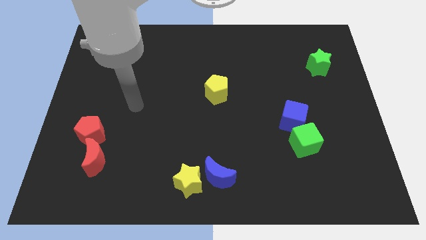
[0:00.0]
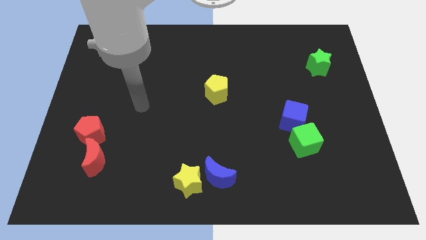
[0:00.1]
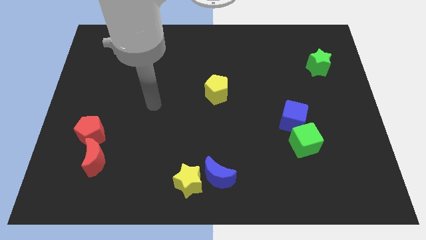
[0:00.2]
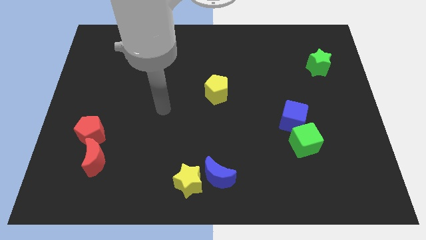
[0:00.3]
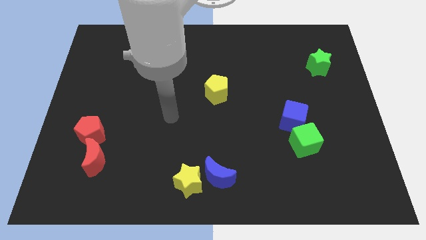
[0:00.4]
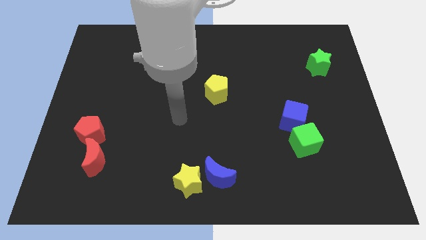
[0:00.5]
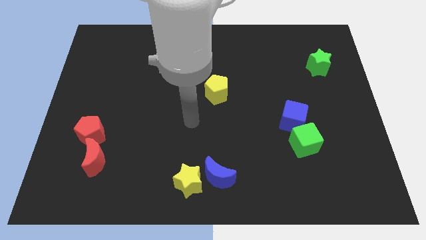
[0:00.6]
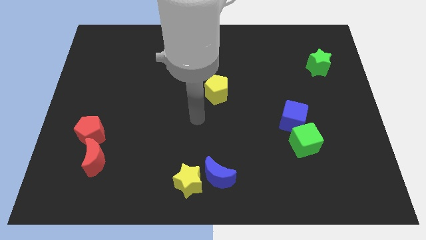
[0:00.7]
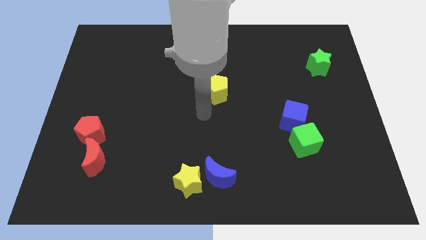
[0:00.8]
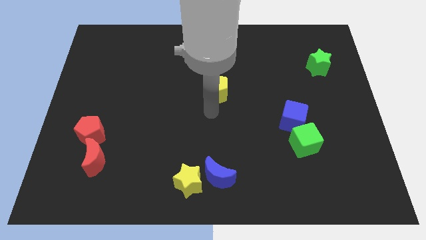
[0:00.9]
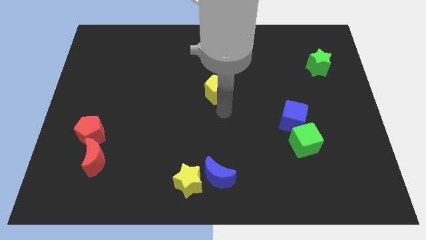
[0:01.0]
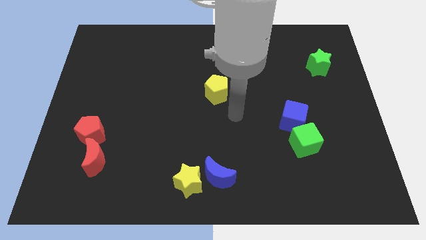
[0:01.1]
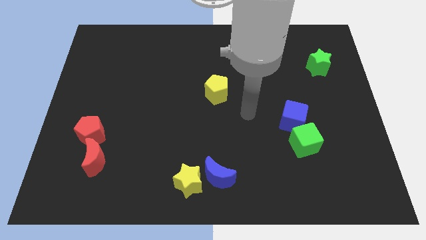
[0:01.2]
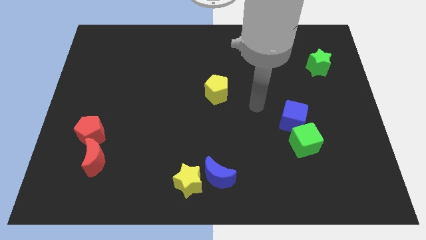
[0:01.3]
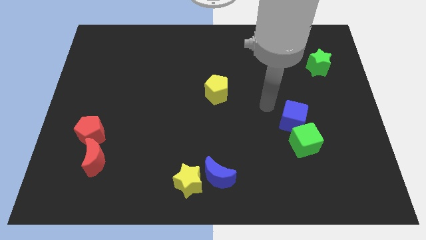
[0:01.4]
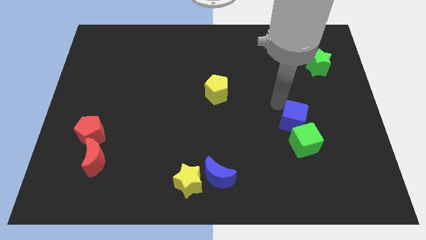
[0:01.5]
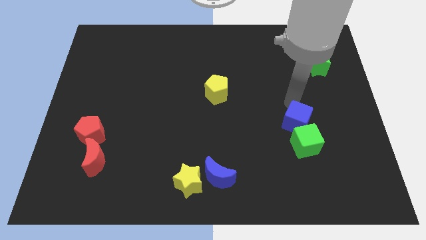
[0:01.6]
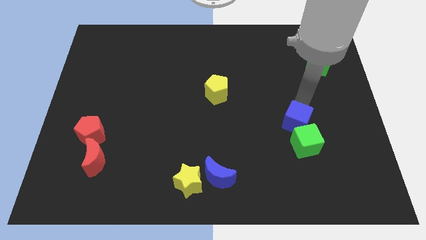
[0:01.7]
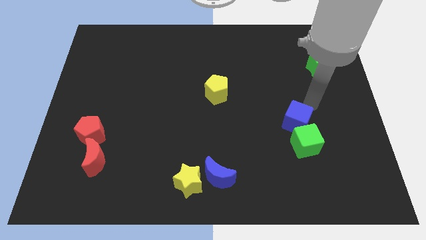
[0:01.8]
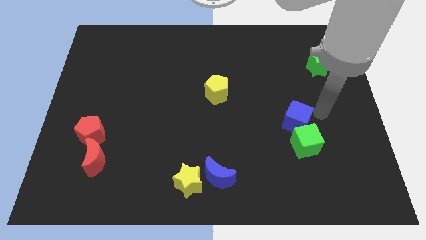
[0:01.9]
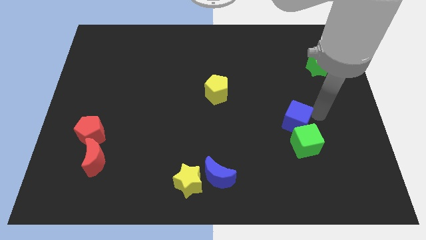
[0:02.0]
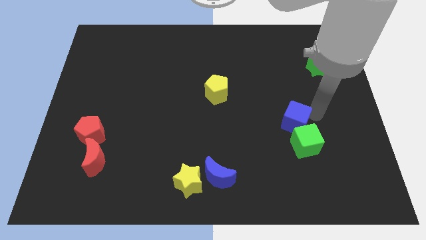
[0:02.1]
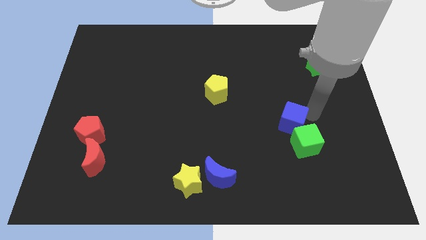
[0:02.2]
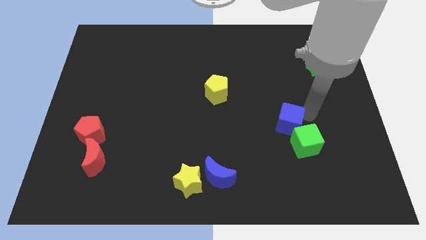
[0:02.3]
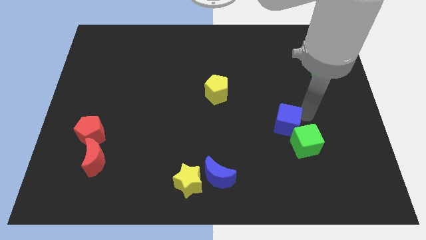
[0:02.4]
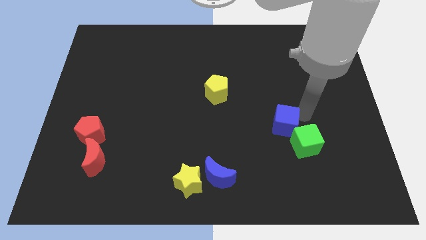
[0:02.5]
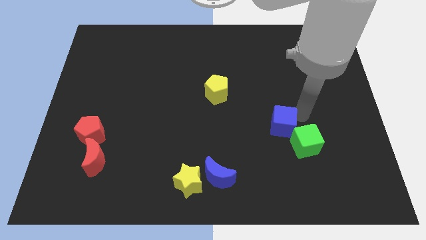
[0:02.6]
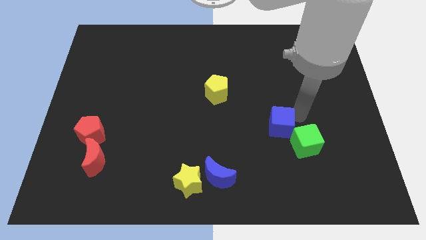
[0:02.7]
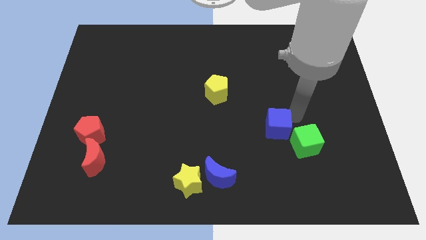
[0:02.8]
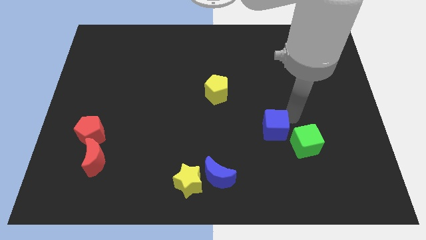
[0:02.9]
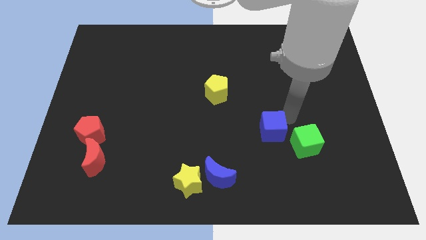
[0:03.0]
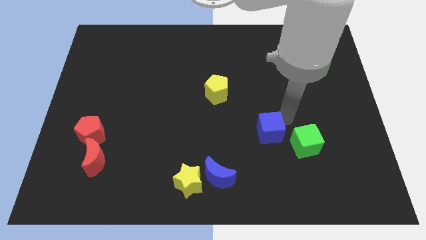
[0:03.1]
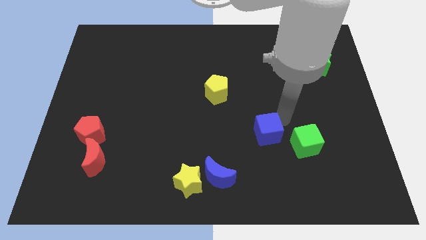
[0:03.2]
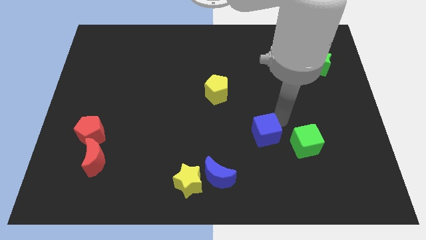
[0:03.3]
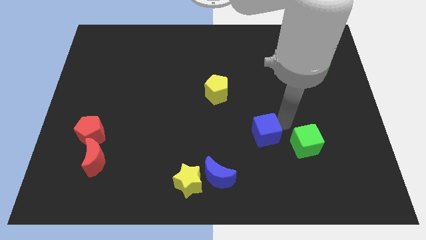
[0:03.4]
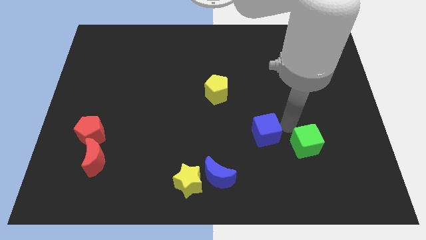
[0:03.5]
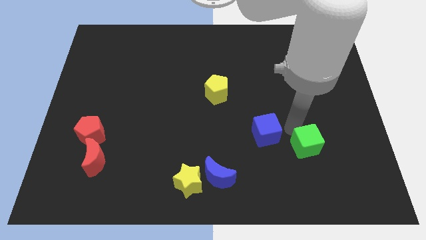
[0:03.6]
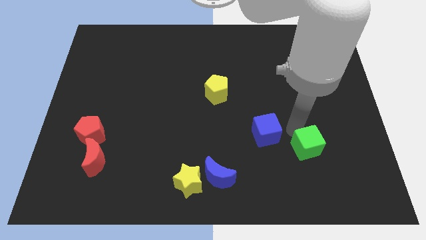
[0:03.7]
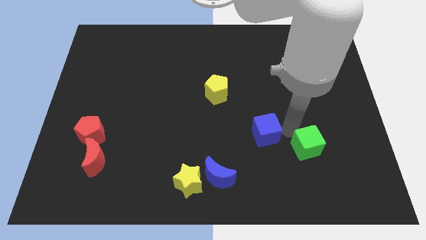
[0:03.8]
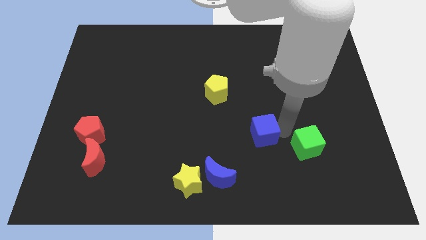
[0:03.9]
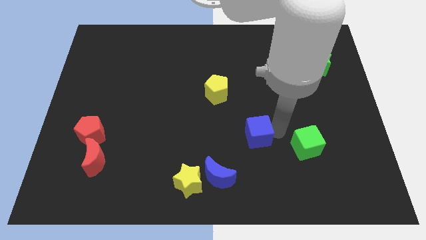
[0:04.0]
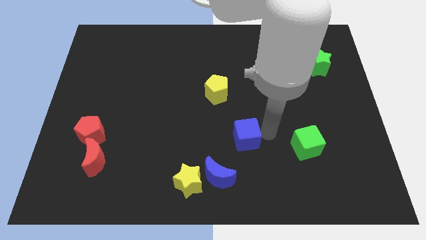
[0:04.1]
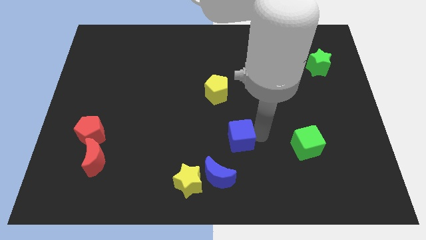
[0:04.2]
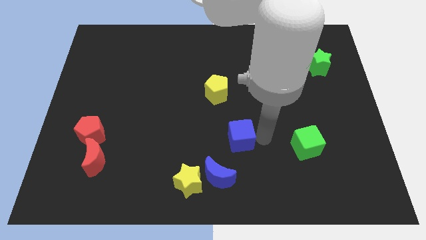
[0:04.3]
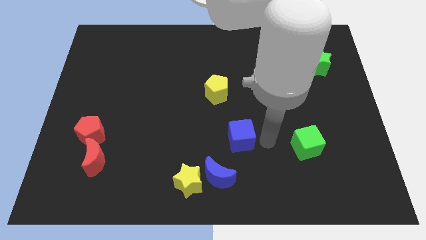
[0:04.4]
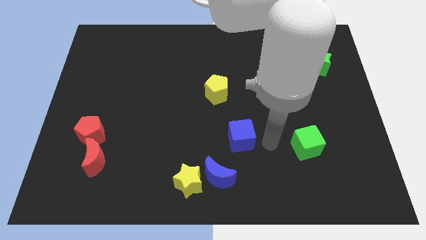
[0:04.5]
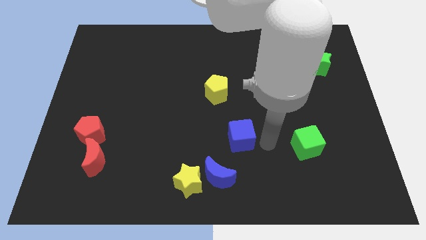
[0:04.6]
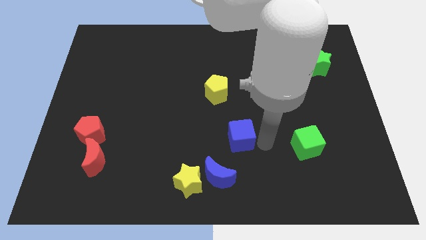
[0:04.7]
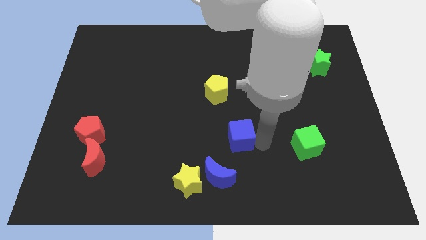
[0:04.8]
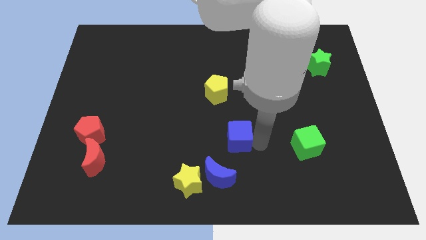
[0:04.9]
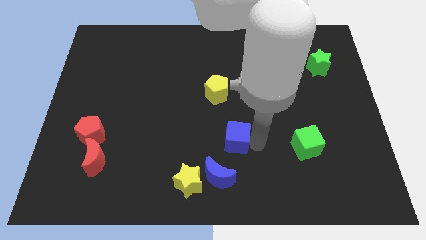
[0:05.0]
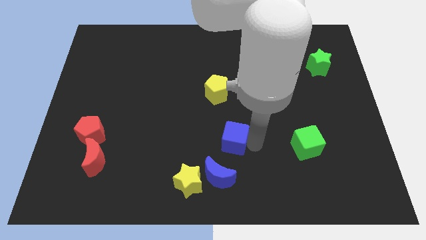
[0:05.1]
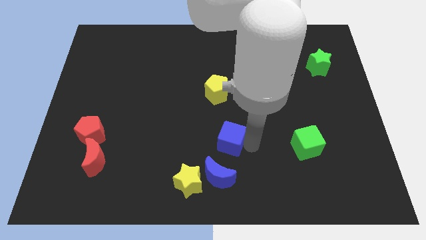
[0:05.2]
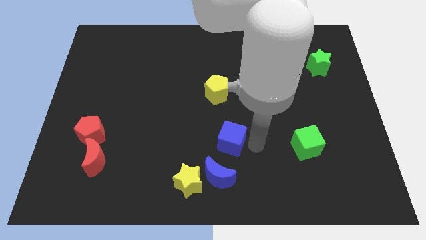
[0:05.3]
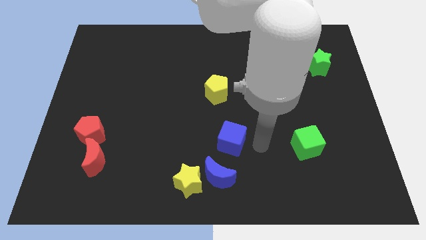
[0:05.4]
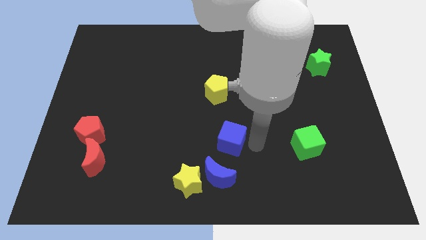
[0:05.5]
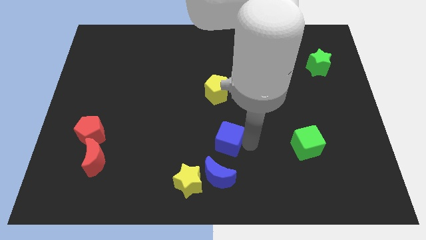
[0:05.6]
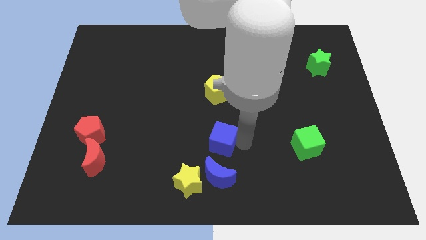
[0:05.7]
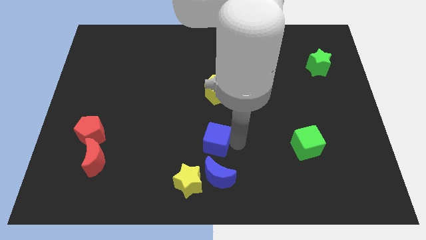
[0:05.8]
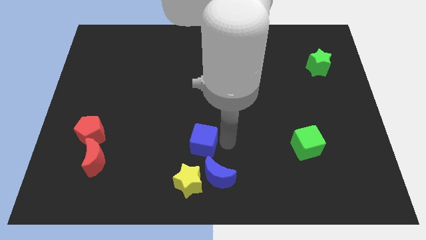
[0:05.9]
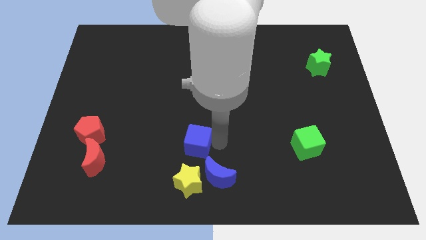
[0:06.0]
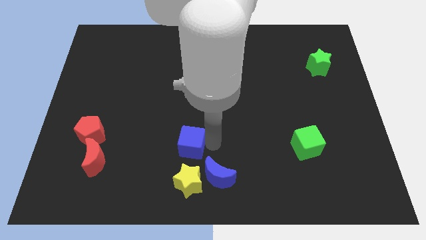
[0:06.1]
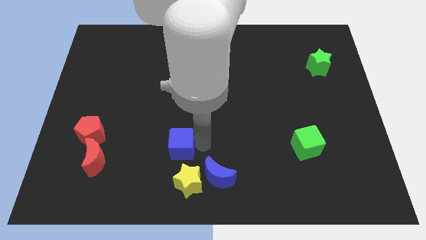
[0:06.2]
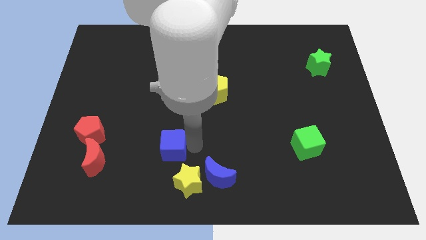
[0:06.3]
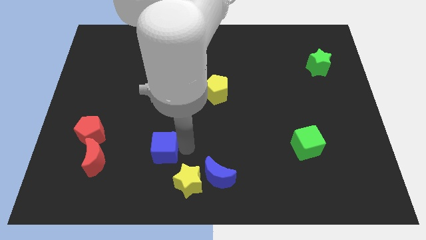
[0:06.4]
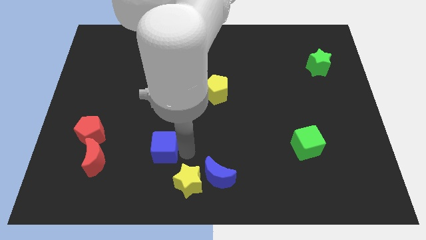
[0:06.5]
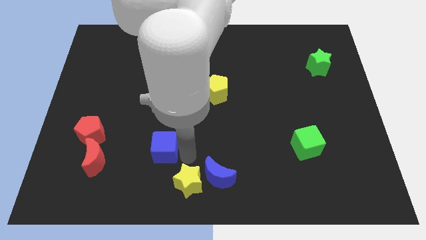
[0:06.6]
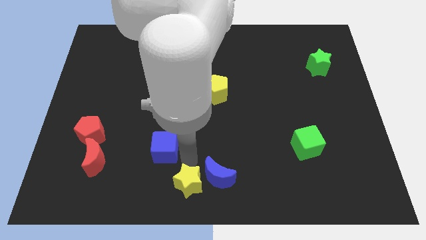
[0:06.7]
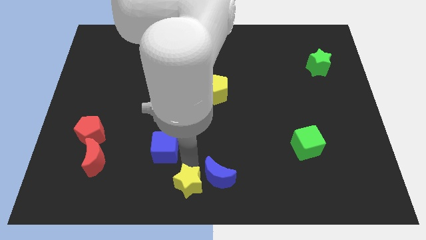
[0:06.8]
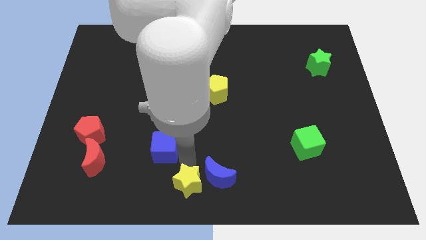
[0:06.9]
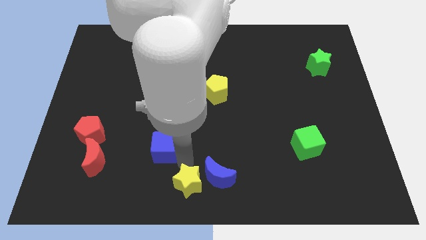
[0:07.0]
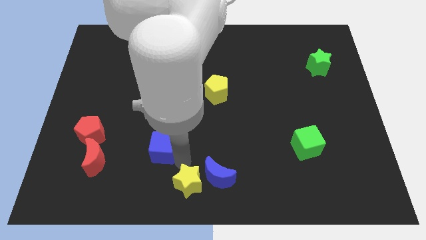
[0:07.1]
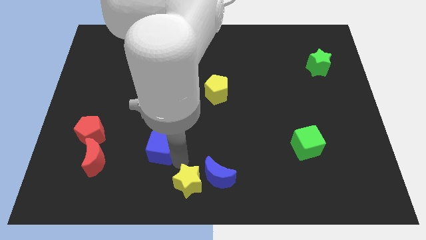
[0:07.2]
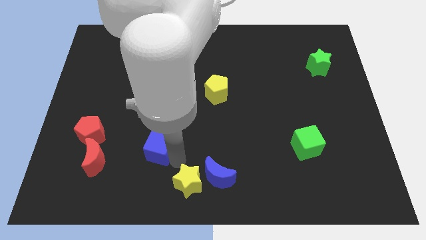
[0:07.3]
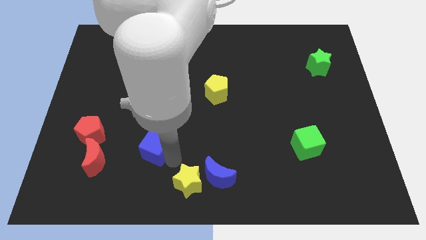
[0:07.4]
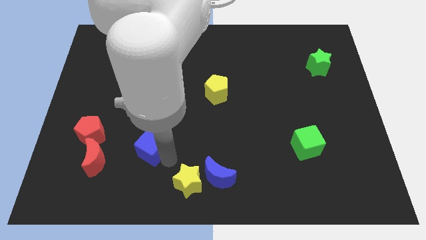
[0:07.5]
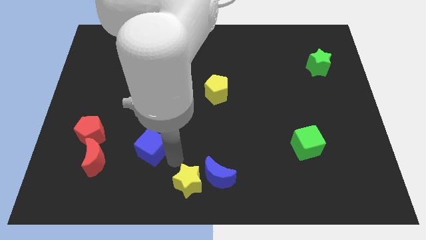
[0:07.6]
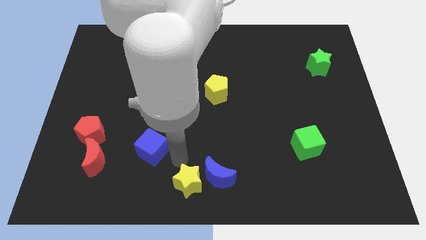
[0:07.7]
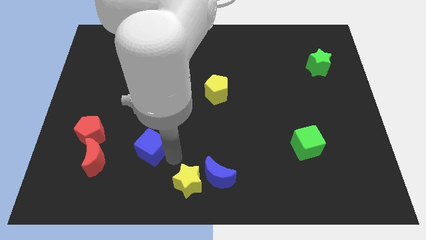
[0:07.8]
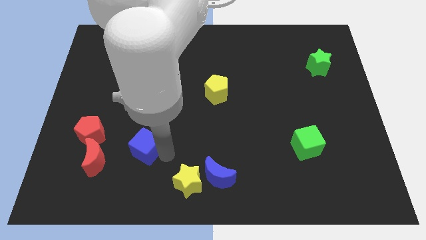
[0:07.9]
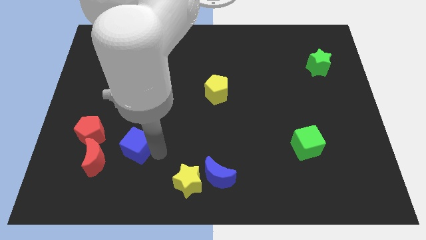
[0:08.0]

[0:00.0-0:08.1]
push the blue cube diagonally up and to the right of the red moon

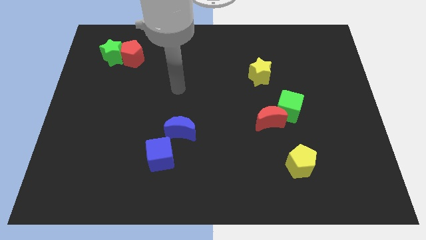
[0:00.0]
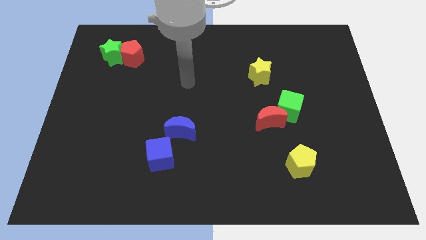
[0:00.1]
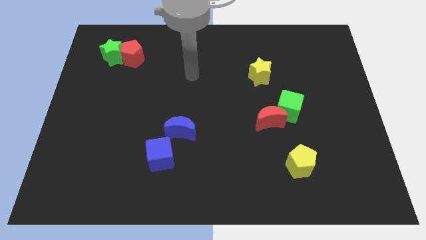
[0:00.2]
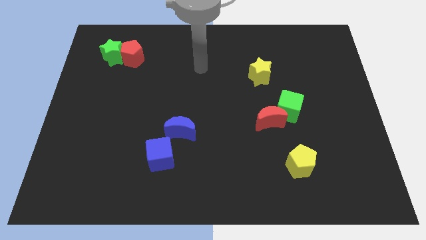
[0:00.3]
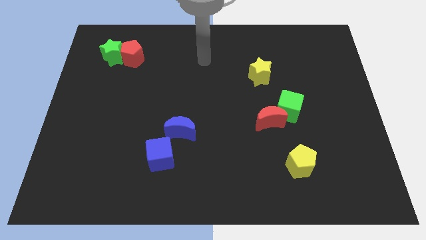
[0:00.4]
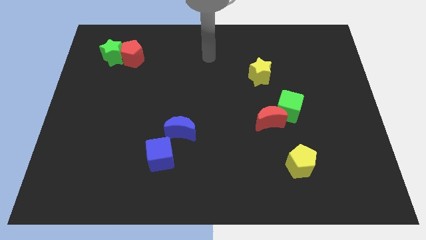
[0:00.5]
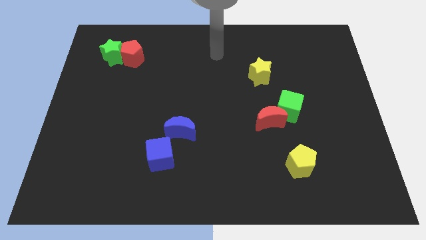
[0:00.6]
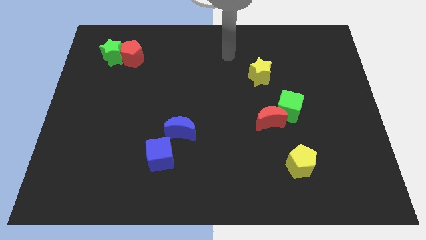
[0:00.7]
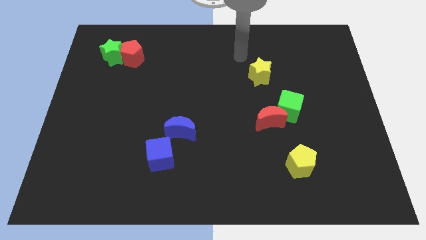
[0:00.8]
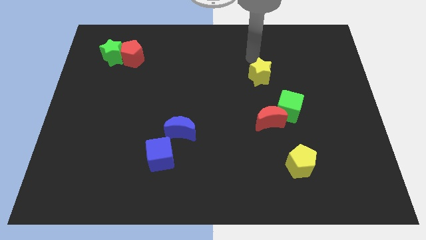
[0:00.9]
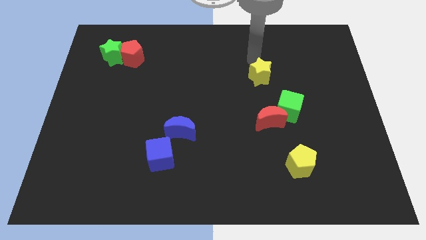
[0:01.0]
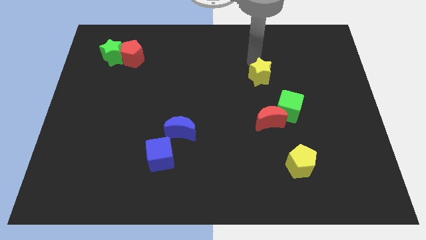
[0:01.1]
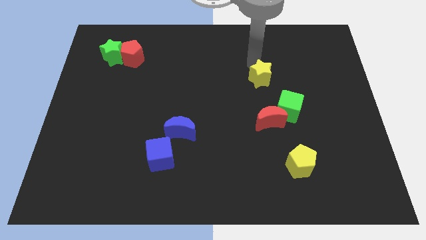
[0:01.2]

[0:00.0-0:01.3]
push the yellow star to the top left of the green cube
